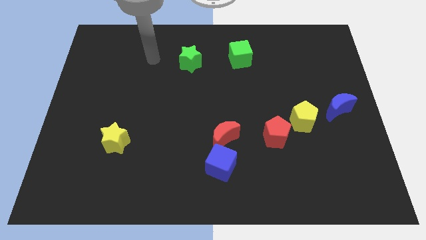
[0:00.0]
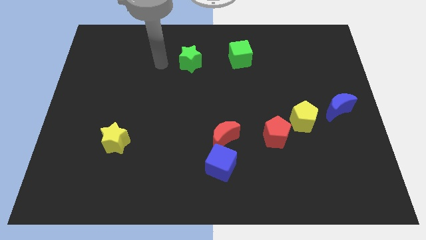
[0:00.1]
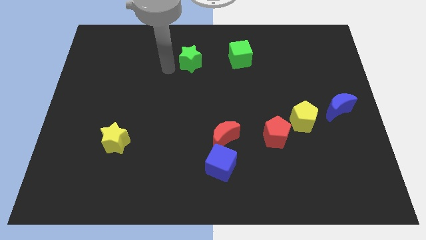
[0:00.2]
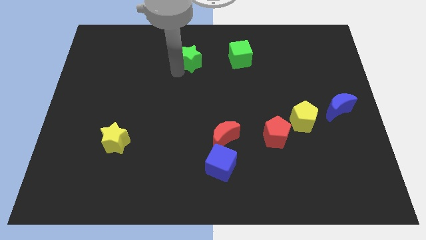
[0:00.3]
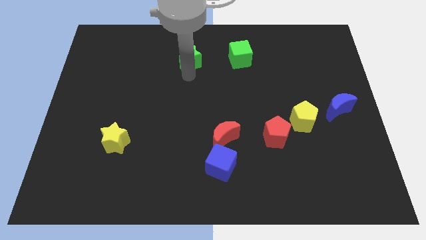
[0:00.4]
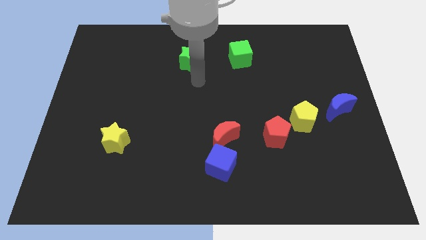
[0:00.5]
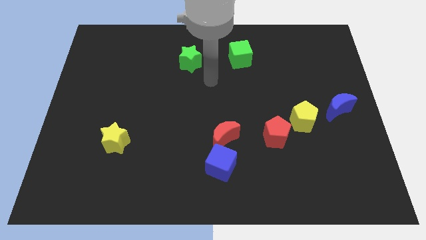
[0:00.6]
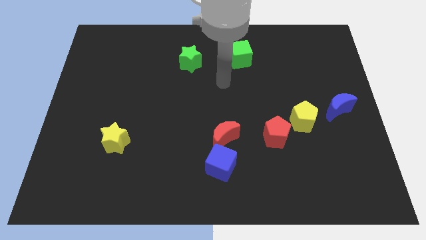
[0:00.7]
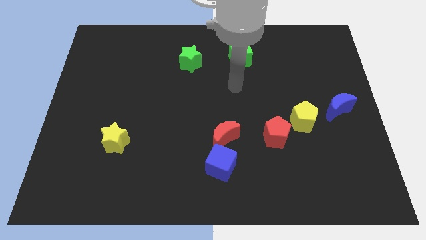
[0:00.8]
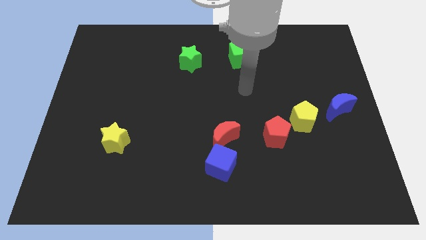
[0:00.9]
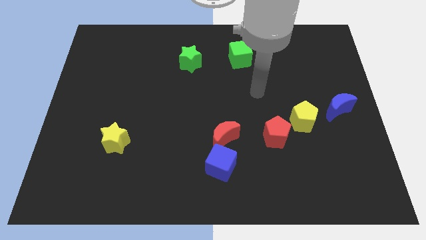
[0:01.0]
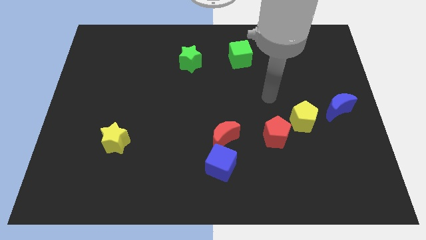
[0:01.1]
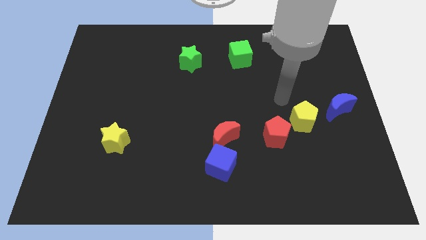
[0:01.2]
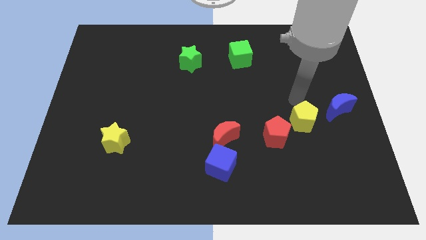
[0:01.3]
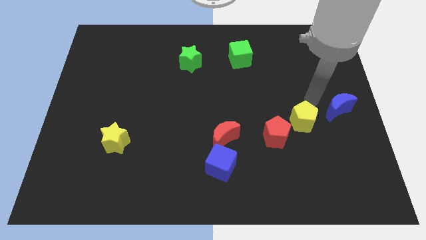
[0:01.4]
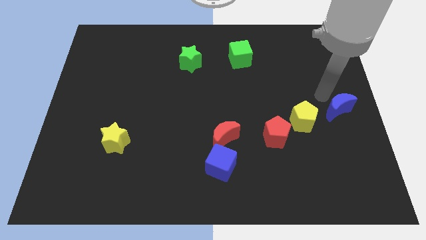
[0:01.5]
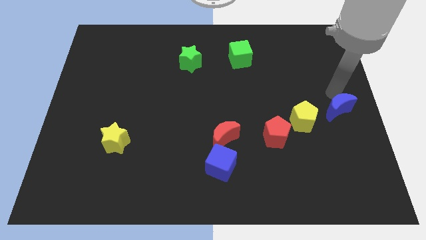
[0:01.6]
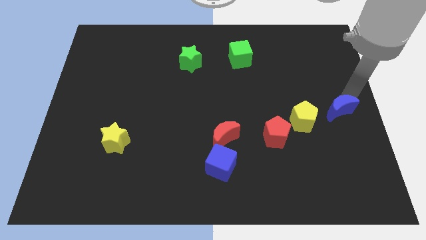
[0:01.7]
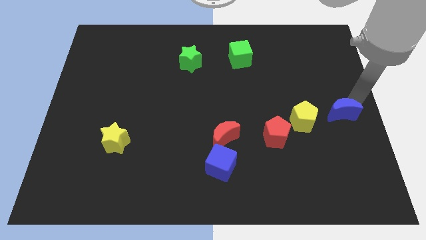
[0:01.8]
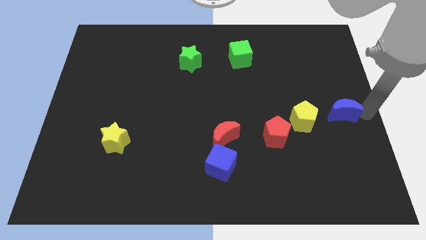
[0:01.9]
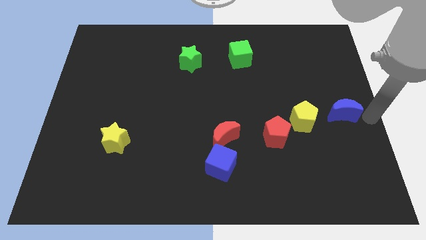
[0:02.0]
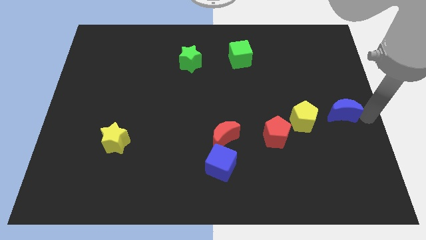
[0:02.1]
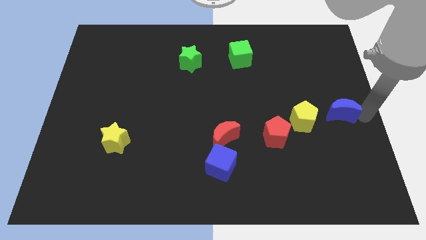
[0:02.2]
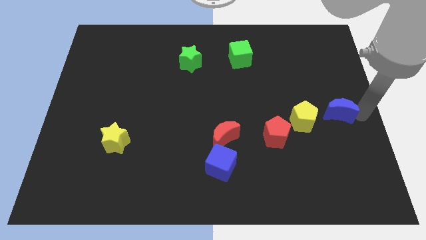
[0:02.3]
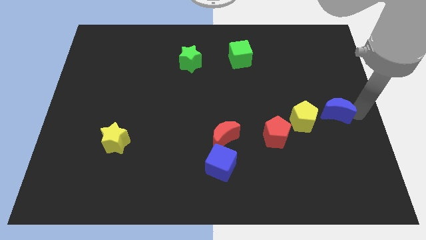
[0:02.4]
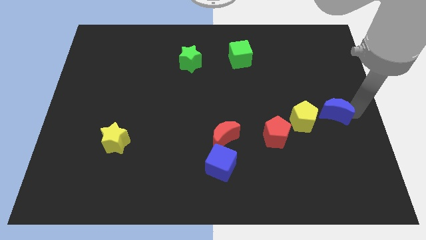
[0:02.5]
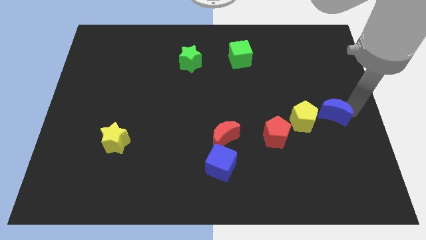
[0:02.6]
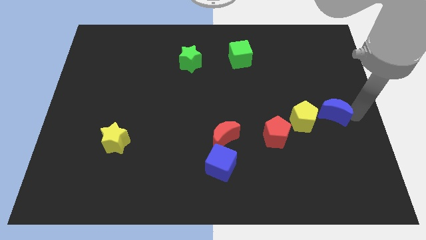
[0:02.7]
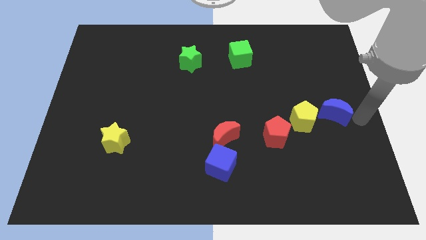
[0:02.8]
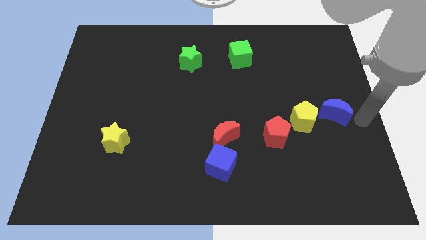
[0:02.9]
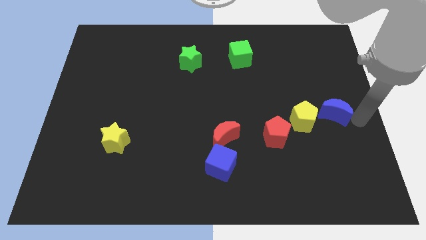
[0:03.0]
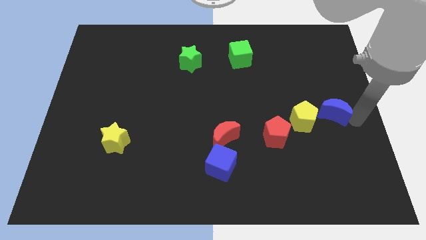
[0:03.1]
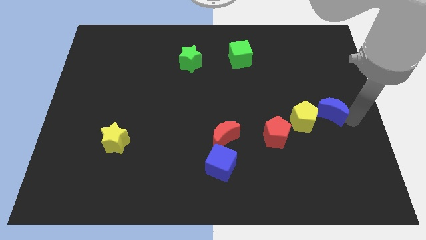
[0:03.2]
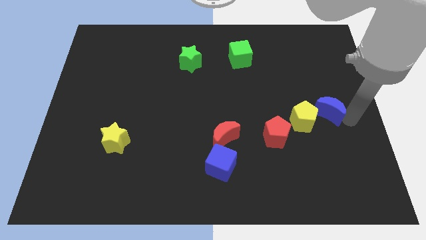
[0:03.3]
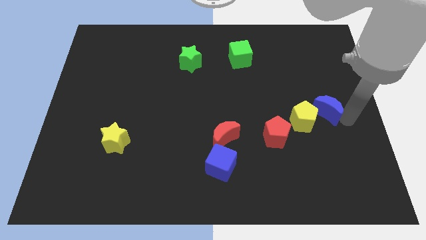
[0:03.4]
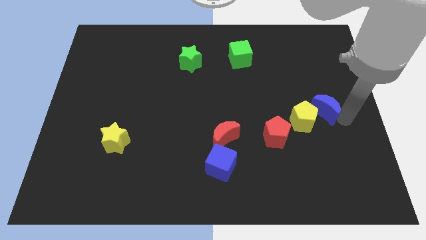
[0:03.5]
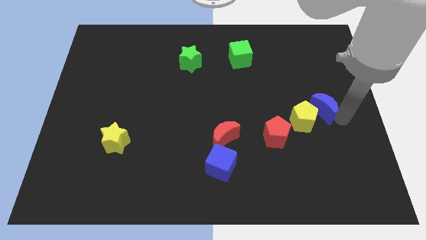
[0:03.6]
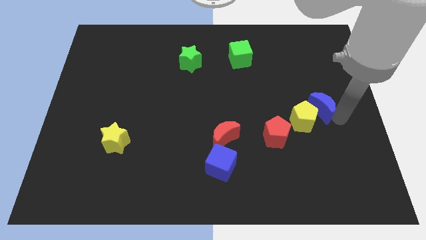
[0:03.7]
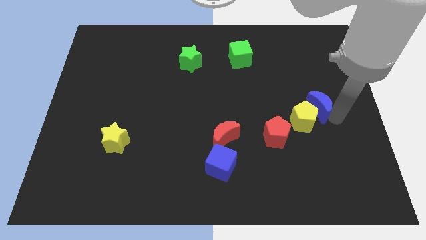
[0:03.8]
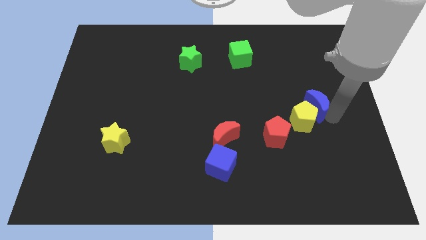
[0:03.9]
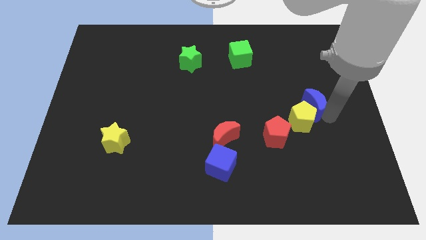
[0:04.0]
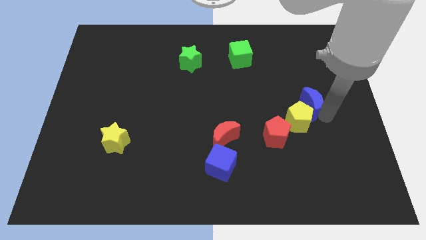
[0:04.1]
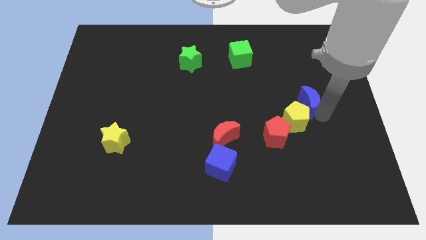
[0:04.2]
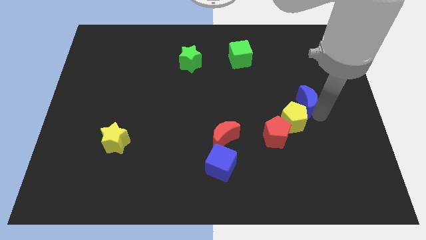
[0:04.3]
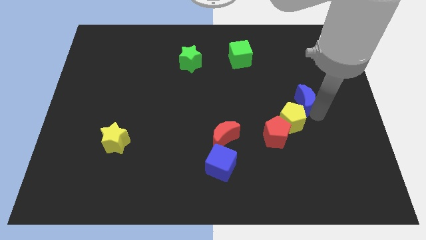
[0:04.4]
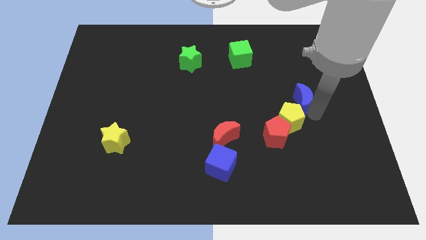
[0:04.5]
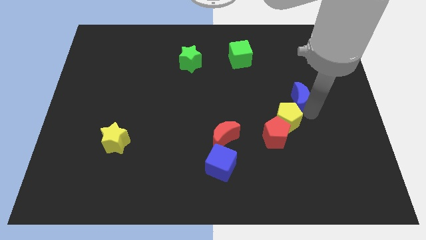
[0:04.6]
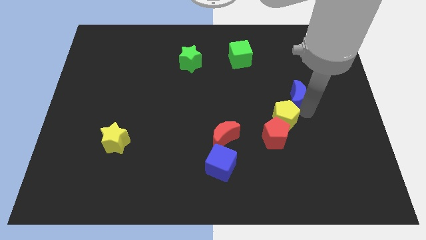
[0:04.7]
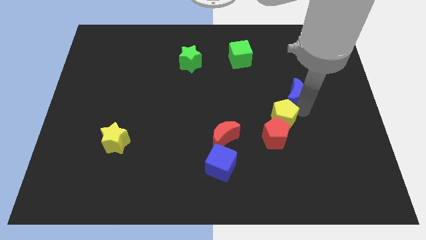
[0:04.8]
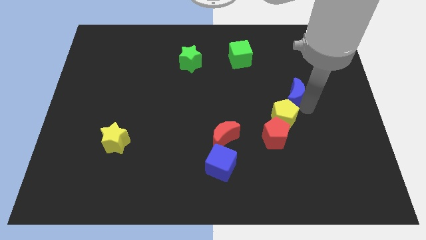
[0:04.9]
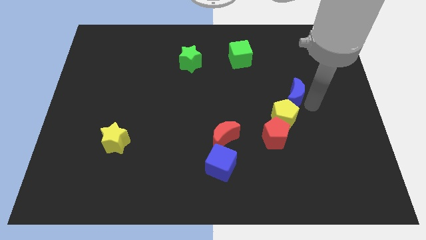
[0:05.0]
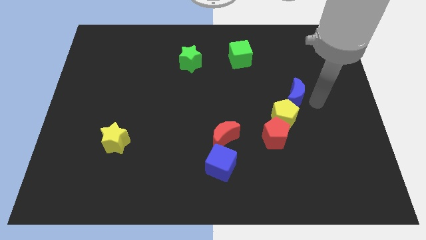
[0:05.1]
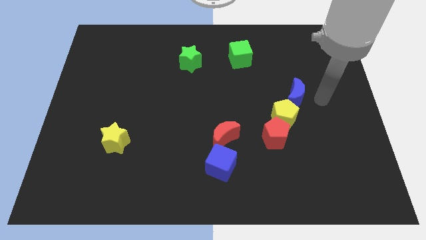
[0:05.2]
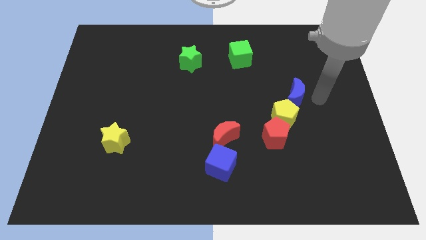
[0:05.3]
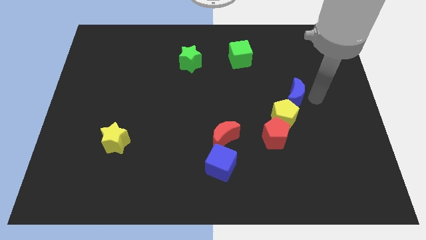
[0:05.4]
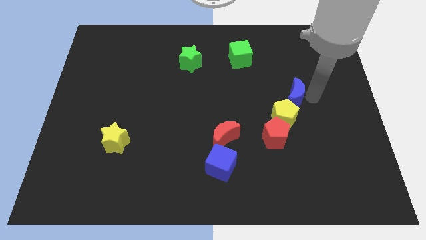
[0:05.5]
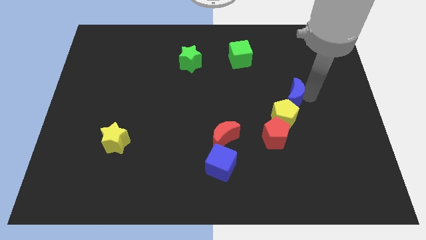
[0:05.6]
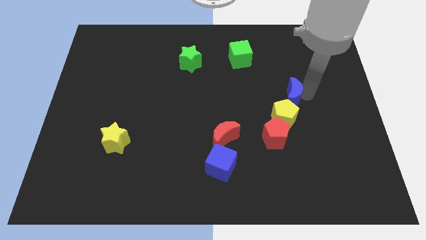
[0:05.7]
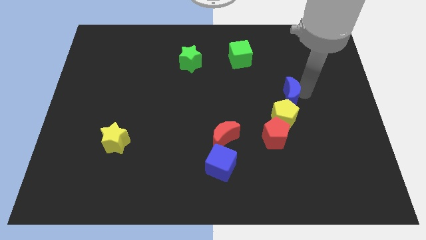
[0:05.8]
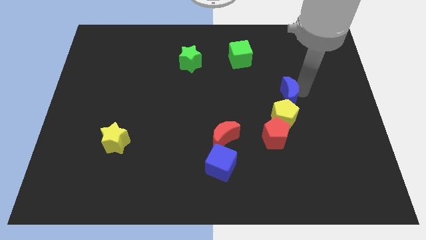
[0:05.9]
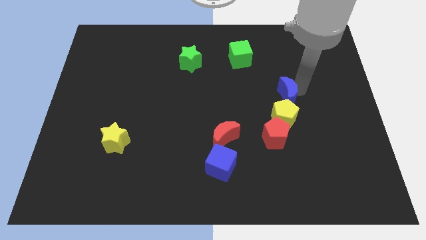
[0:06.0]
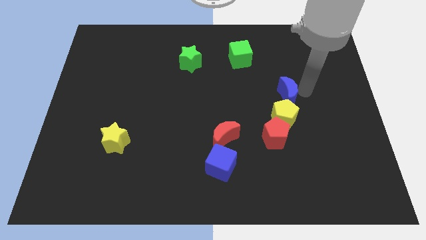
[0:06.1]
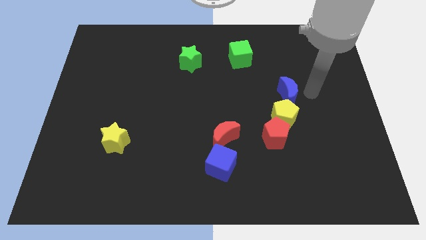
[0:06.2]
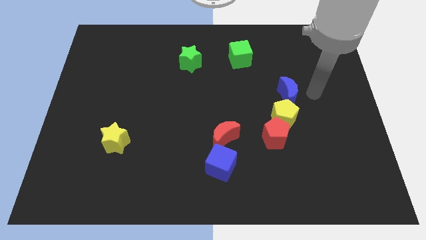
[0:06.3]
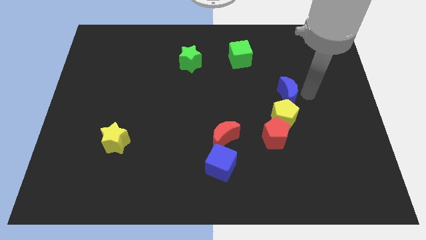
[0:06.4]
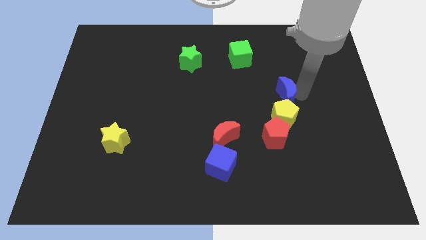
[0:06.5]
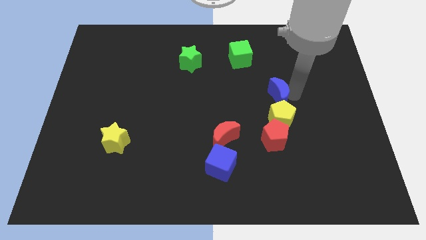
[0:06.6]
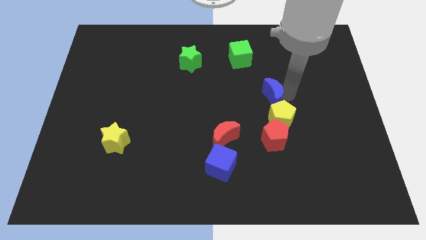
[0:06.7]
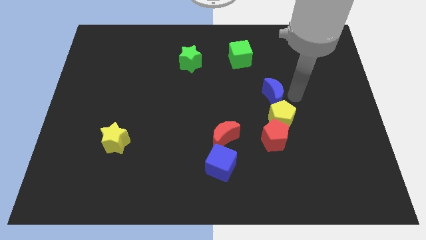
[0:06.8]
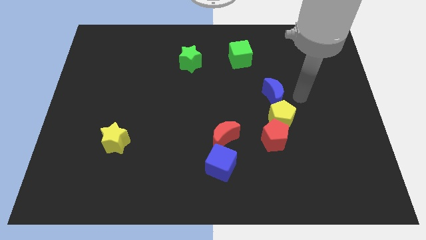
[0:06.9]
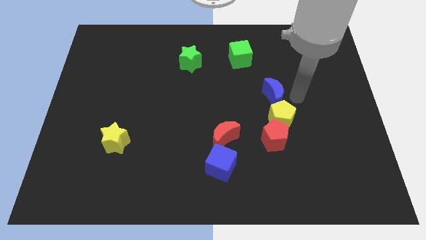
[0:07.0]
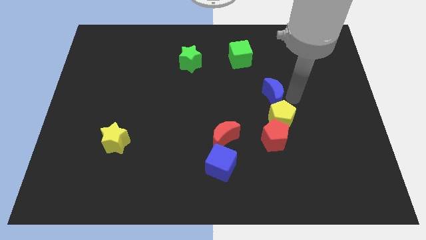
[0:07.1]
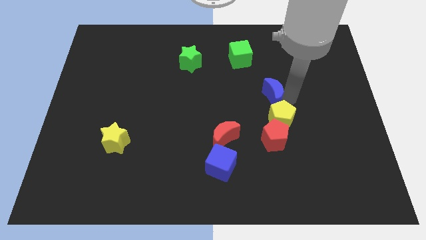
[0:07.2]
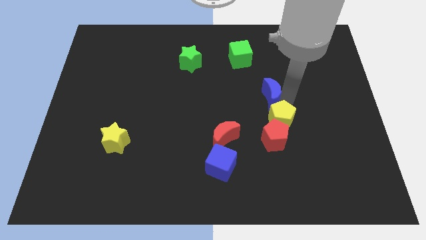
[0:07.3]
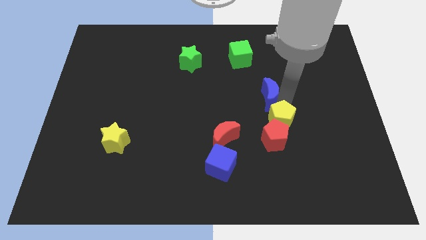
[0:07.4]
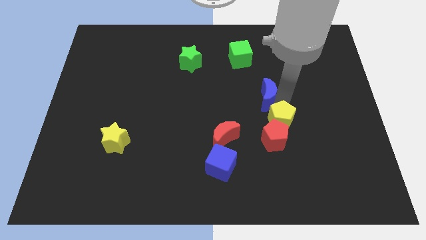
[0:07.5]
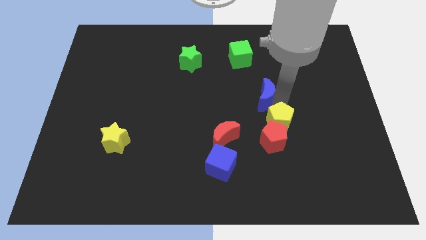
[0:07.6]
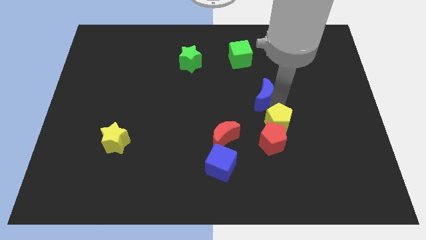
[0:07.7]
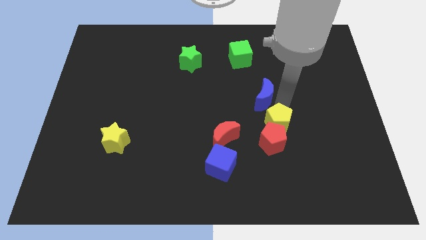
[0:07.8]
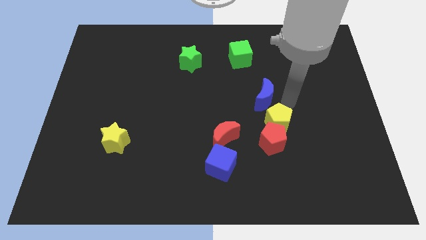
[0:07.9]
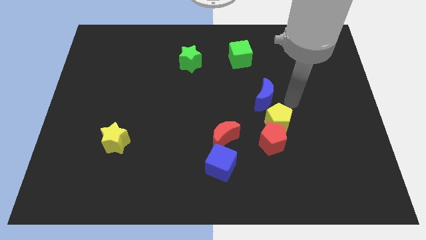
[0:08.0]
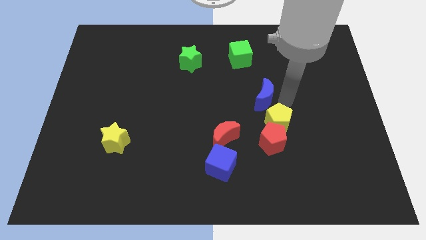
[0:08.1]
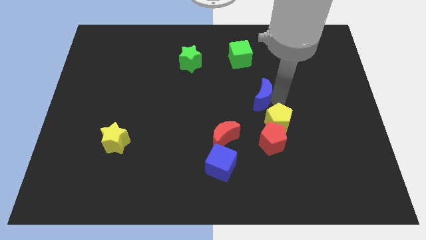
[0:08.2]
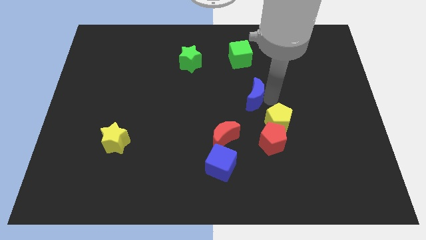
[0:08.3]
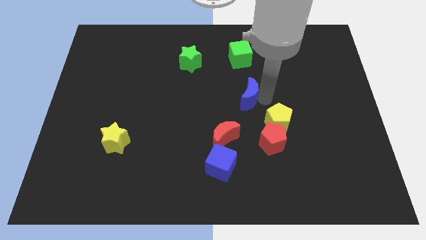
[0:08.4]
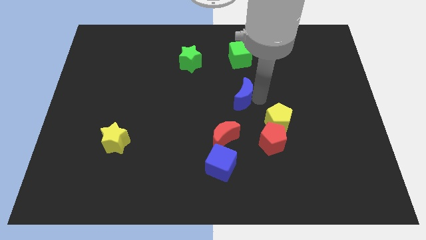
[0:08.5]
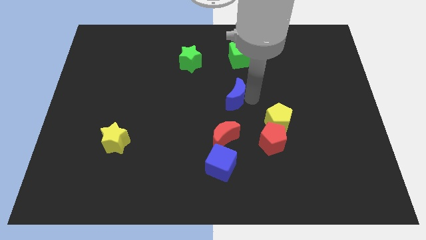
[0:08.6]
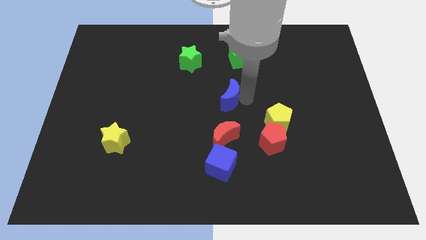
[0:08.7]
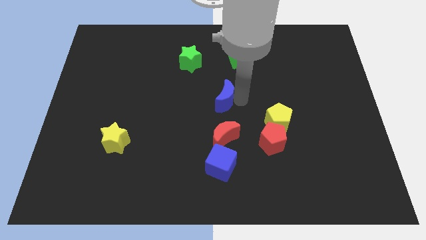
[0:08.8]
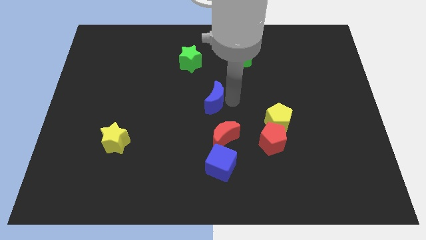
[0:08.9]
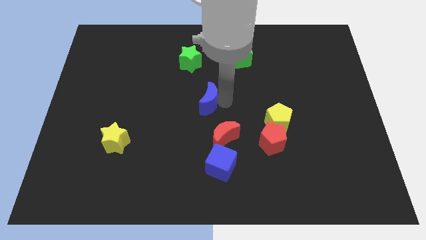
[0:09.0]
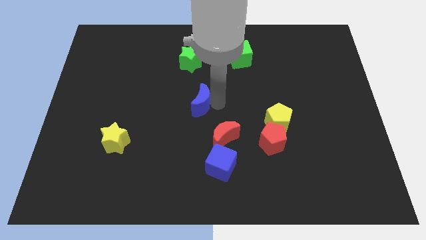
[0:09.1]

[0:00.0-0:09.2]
slide the blue moon below the green star
